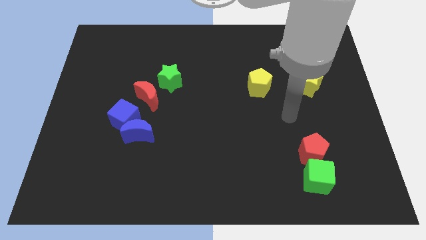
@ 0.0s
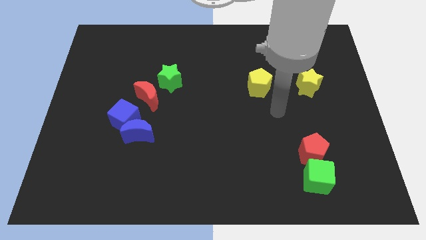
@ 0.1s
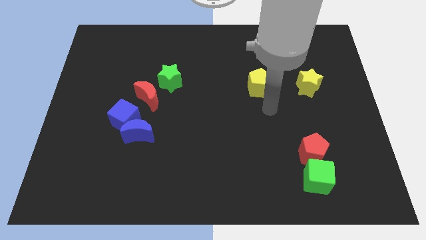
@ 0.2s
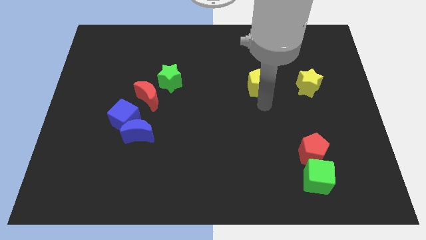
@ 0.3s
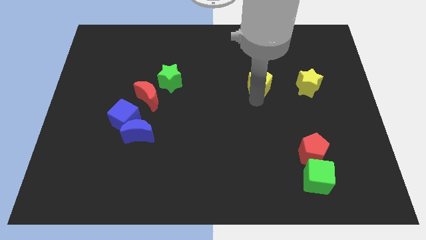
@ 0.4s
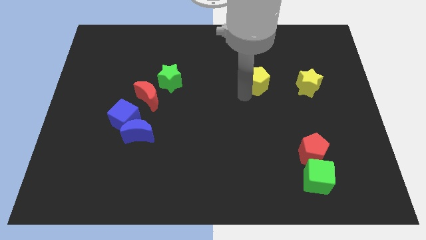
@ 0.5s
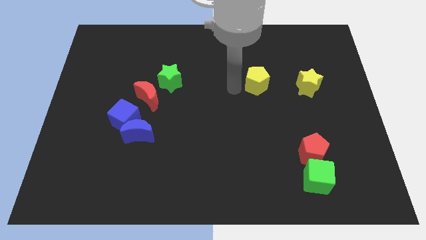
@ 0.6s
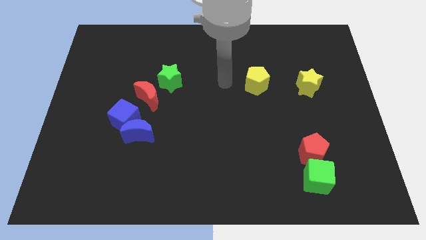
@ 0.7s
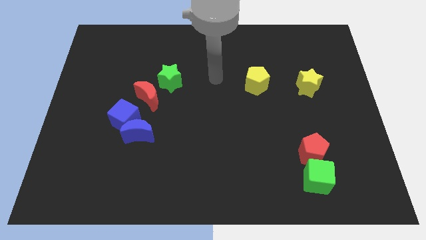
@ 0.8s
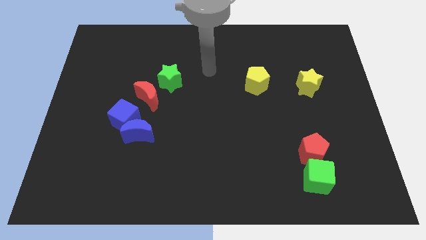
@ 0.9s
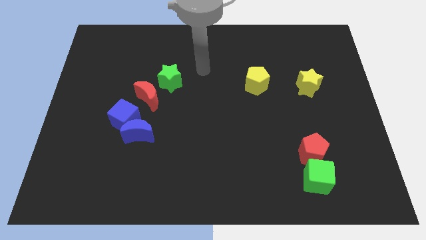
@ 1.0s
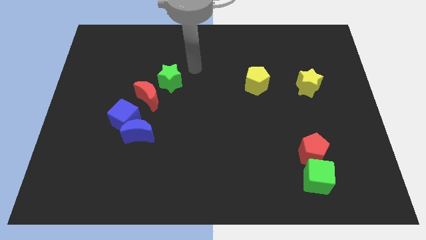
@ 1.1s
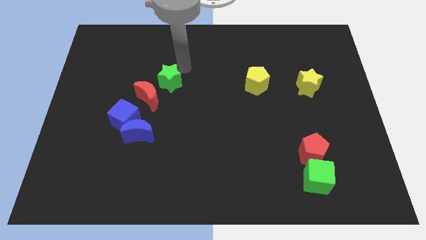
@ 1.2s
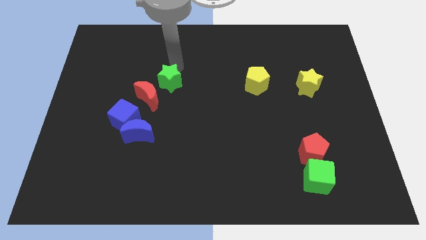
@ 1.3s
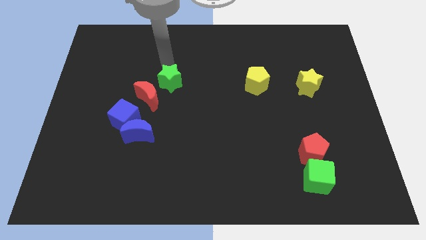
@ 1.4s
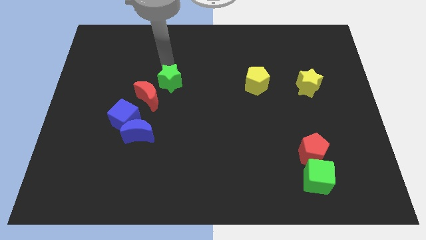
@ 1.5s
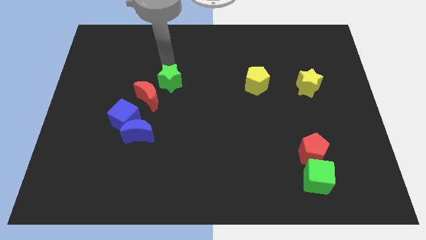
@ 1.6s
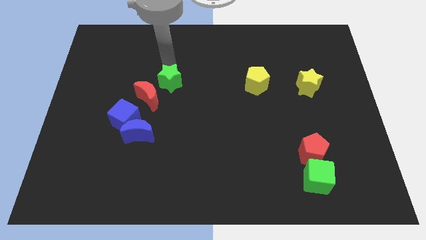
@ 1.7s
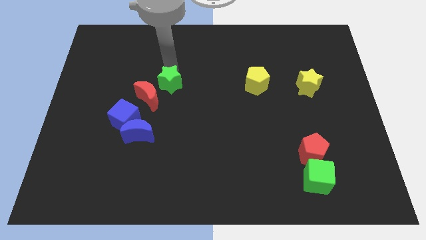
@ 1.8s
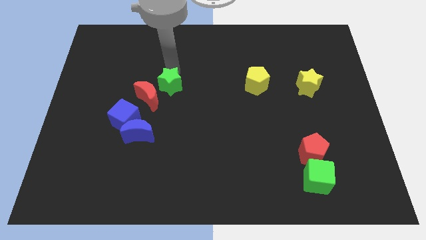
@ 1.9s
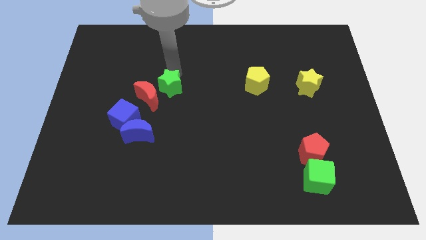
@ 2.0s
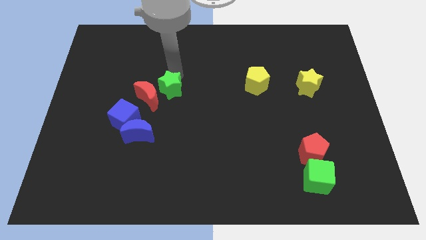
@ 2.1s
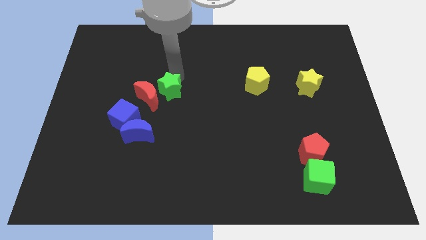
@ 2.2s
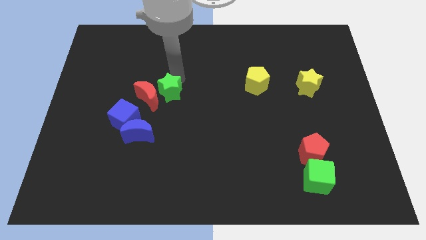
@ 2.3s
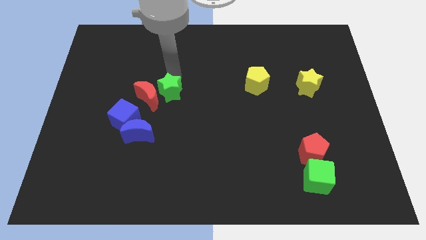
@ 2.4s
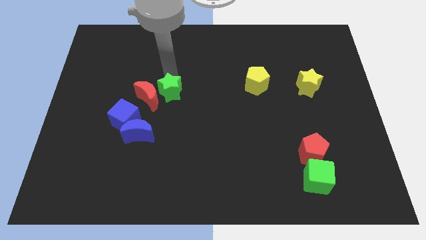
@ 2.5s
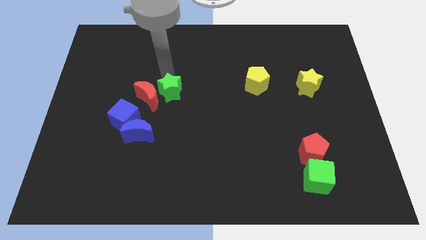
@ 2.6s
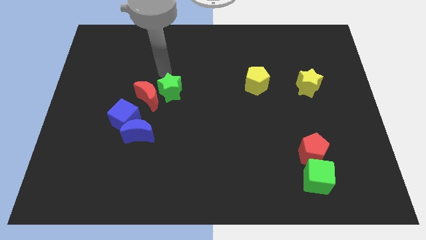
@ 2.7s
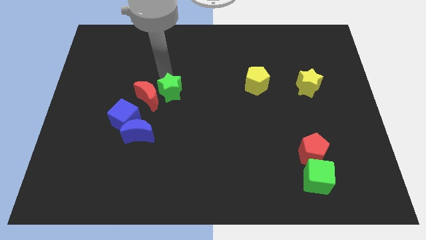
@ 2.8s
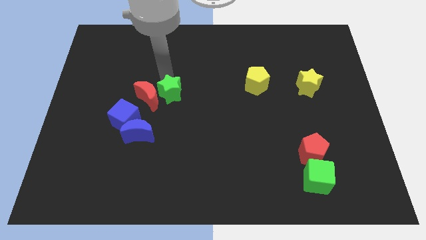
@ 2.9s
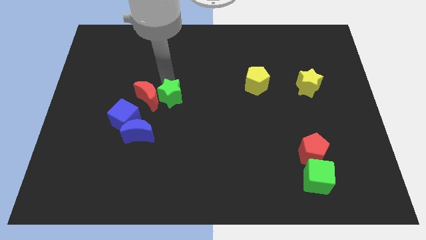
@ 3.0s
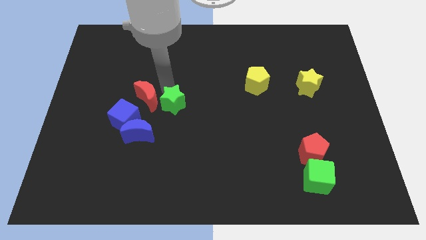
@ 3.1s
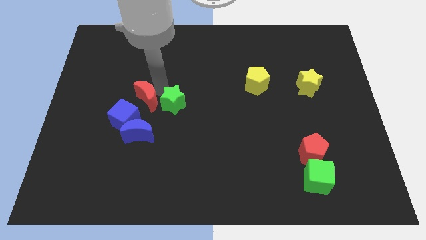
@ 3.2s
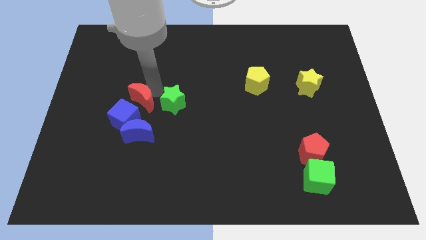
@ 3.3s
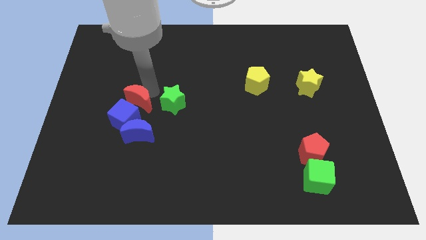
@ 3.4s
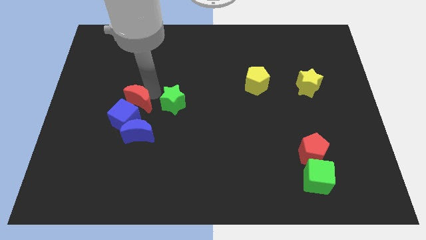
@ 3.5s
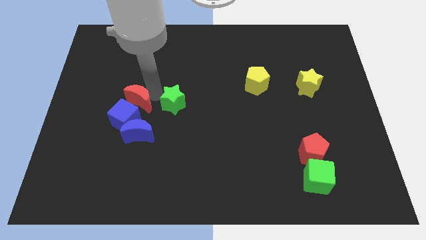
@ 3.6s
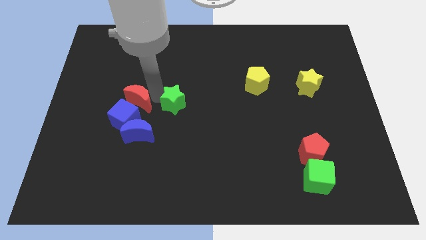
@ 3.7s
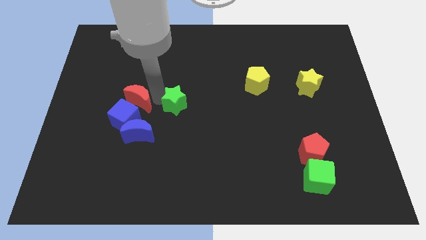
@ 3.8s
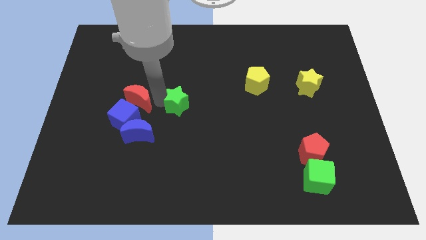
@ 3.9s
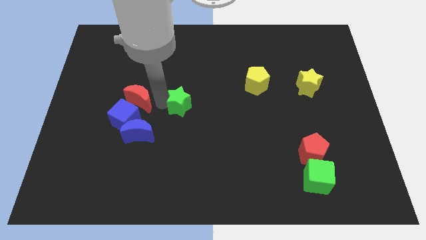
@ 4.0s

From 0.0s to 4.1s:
slide the green star somewhat down and to the right diagonally

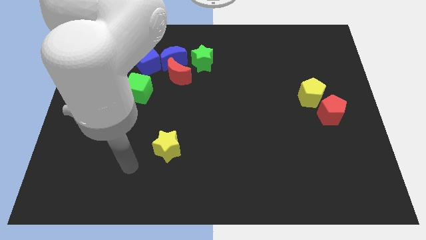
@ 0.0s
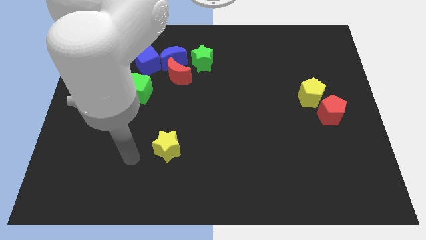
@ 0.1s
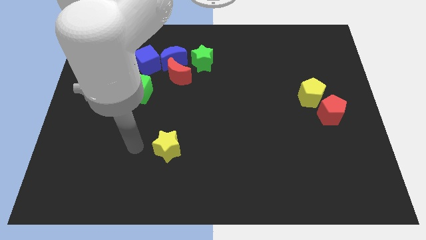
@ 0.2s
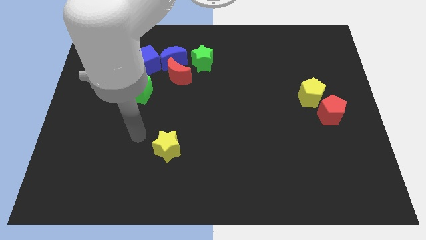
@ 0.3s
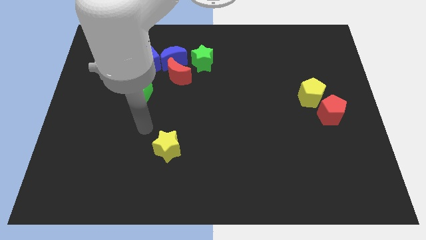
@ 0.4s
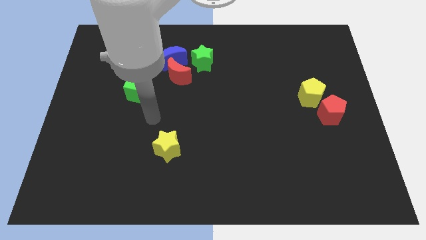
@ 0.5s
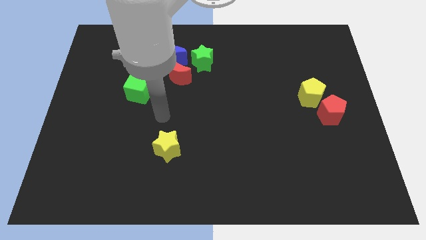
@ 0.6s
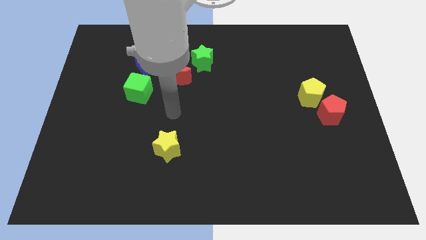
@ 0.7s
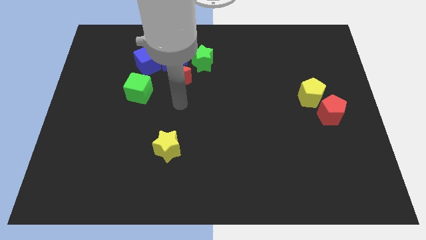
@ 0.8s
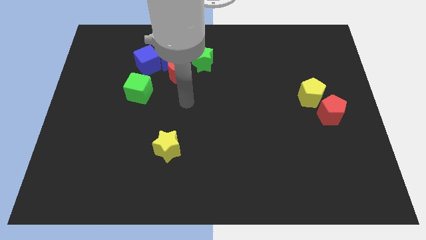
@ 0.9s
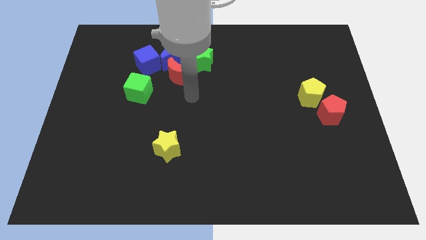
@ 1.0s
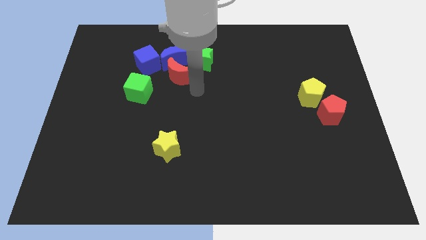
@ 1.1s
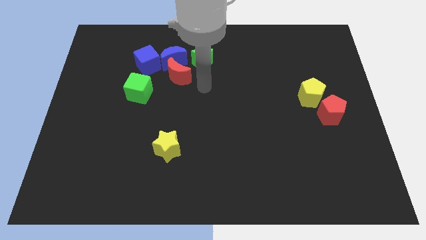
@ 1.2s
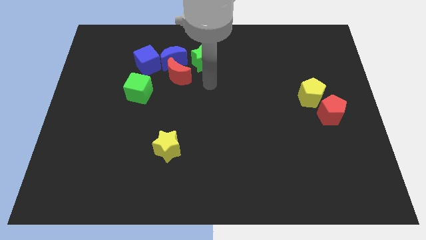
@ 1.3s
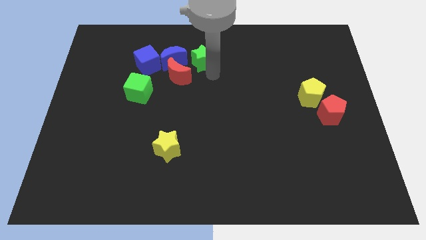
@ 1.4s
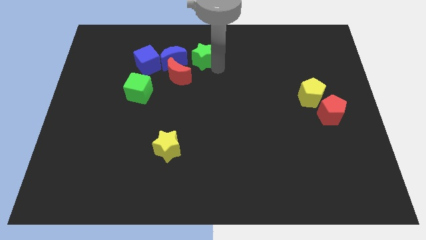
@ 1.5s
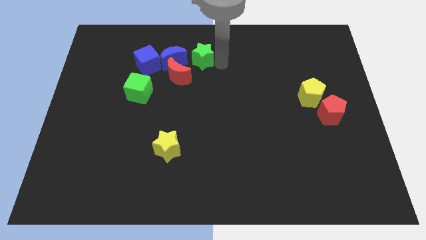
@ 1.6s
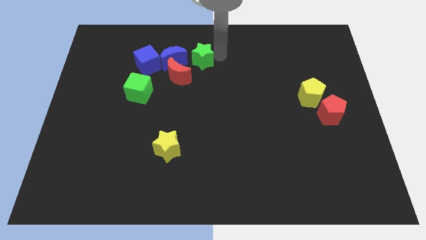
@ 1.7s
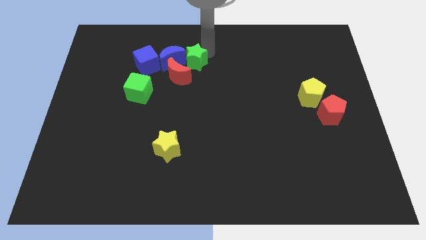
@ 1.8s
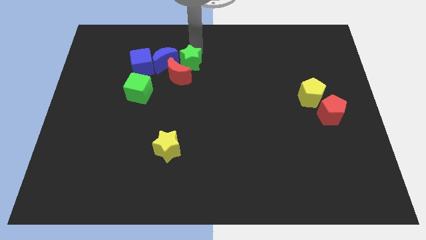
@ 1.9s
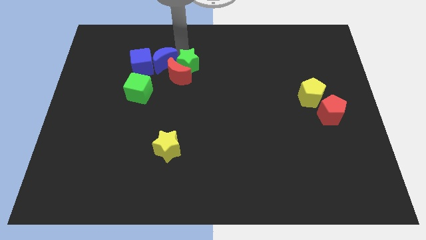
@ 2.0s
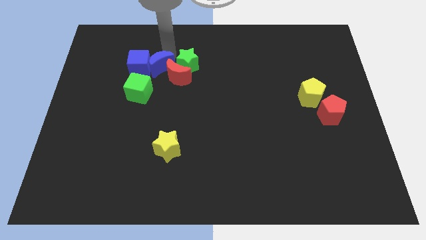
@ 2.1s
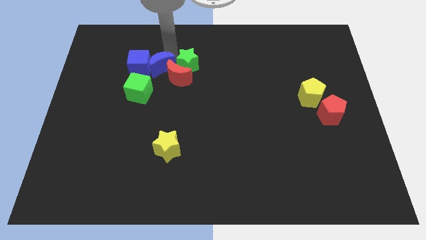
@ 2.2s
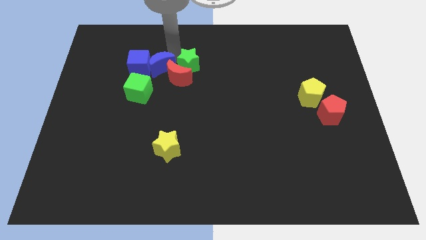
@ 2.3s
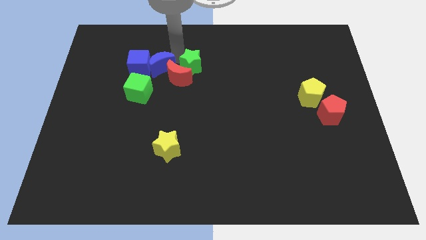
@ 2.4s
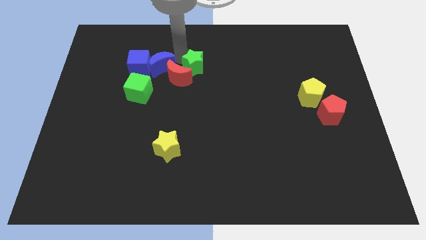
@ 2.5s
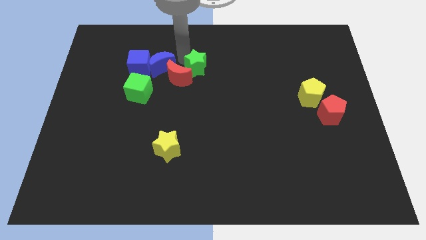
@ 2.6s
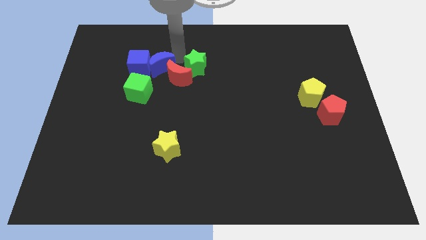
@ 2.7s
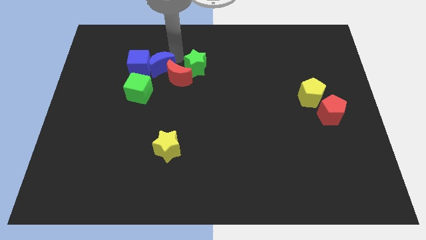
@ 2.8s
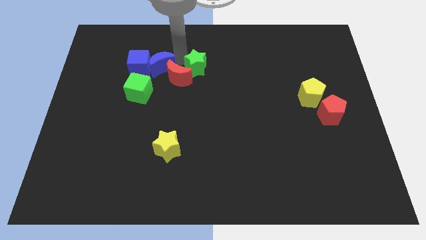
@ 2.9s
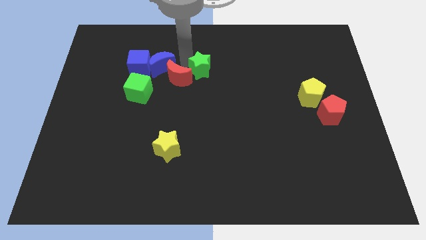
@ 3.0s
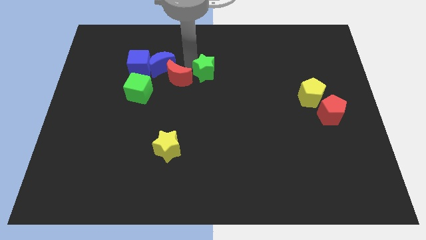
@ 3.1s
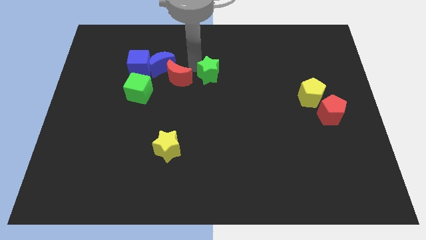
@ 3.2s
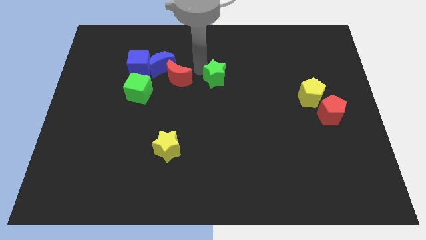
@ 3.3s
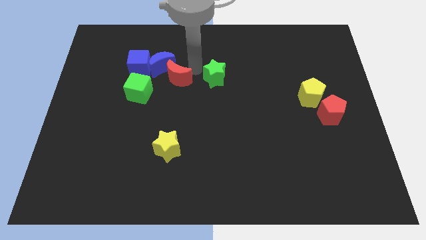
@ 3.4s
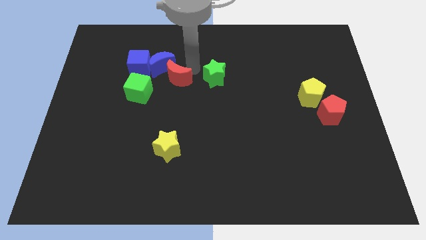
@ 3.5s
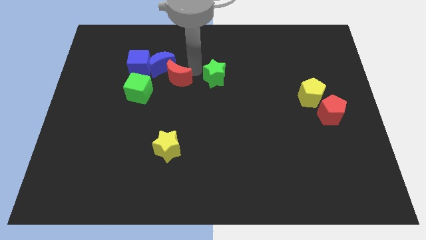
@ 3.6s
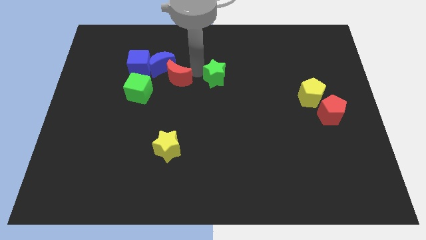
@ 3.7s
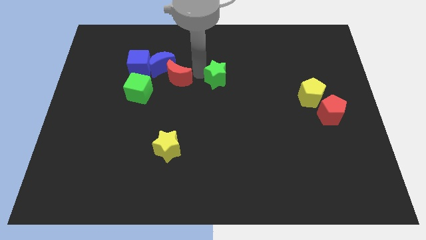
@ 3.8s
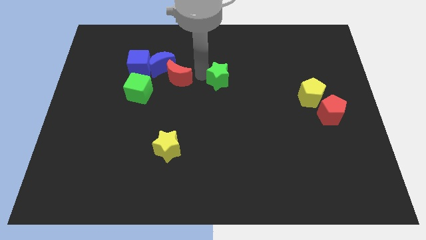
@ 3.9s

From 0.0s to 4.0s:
push the green star downwards and right diagonally slightly
